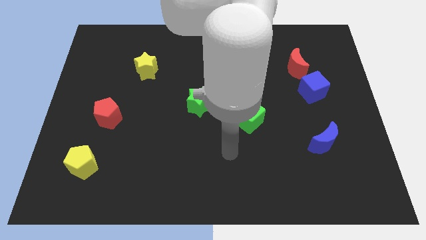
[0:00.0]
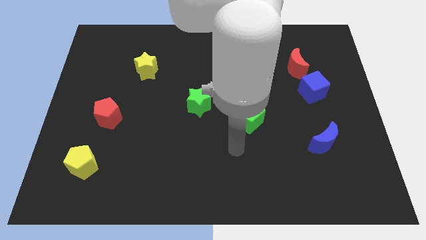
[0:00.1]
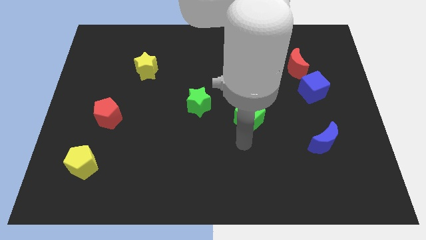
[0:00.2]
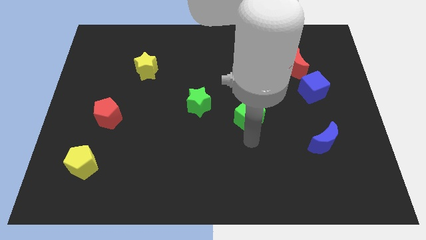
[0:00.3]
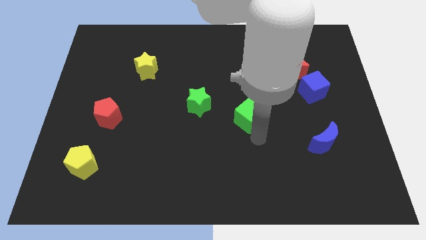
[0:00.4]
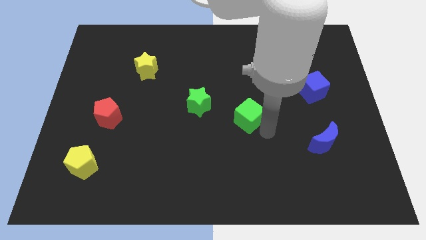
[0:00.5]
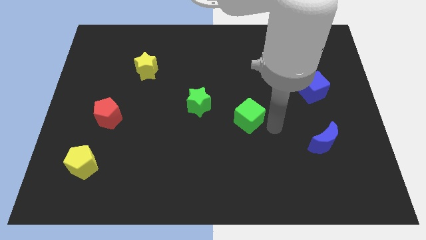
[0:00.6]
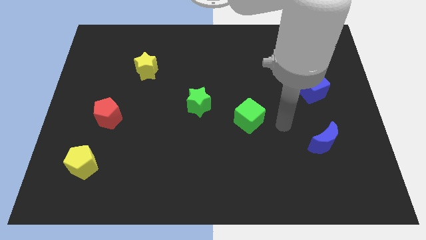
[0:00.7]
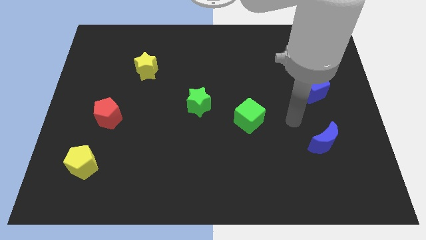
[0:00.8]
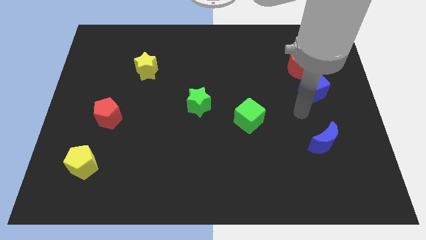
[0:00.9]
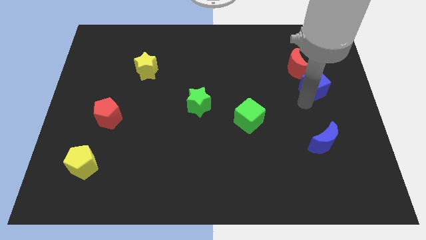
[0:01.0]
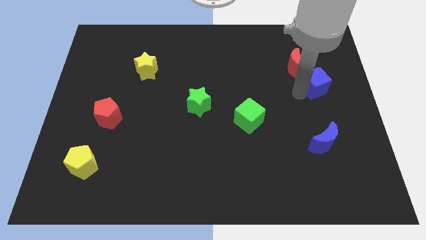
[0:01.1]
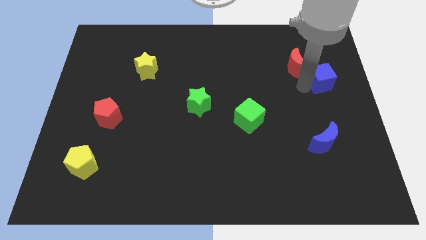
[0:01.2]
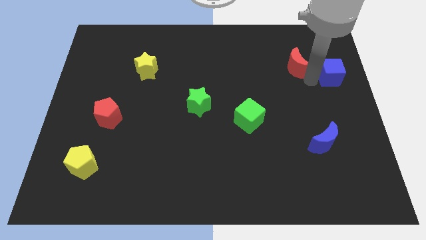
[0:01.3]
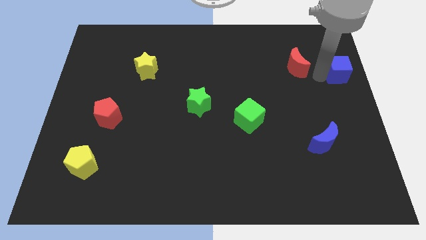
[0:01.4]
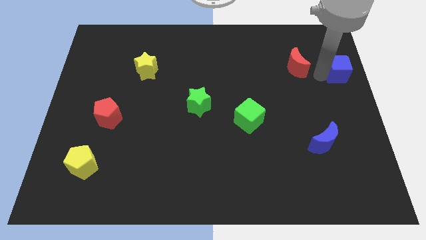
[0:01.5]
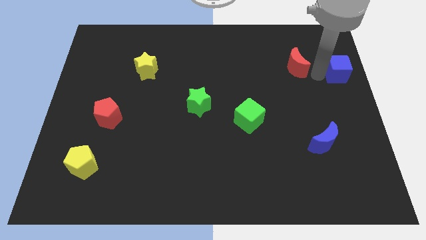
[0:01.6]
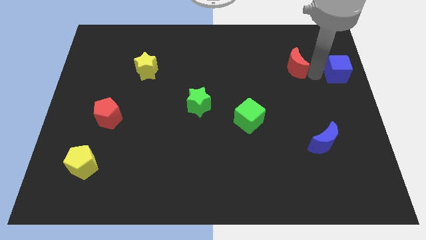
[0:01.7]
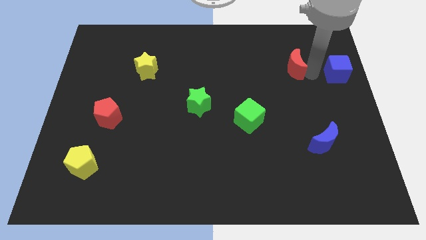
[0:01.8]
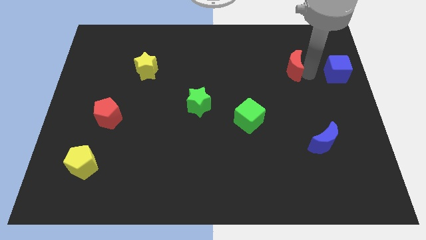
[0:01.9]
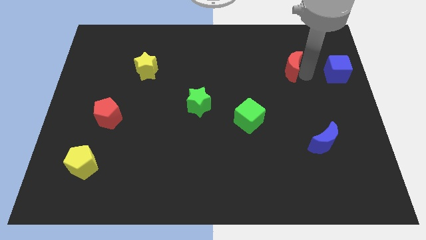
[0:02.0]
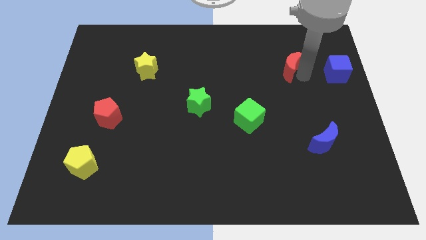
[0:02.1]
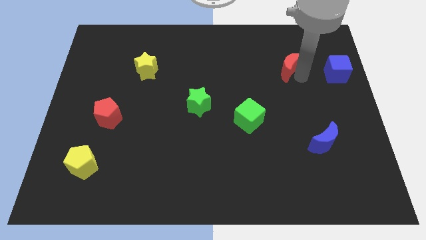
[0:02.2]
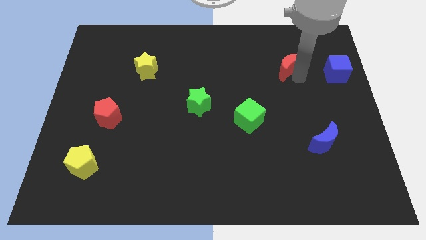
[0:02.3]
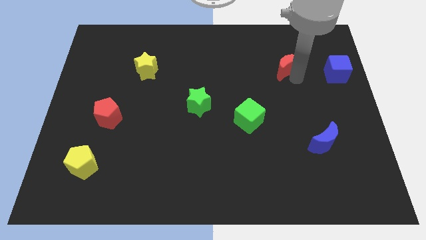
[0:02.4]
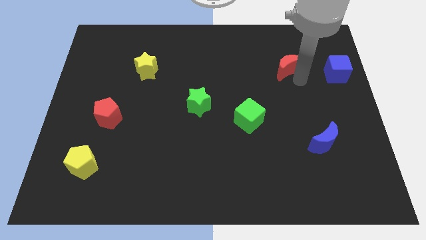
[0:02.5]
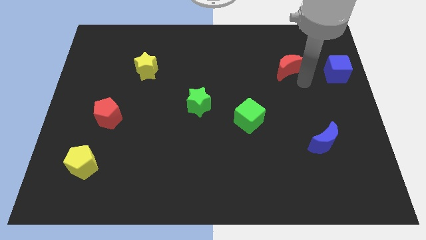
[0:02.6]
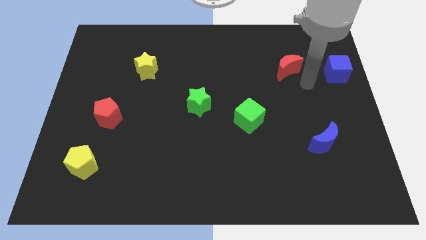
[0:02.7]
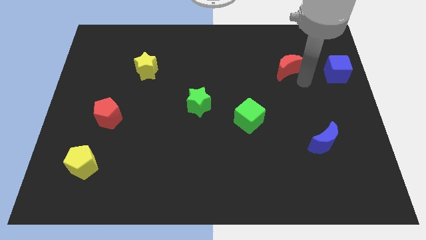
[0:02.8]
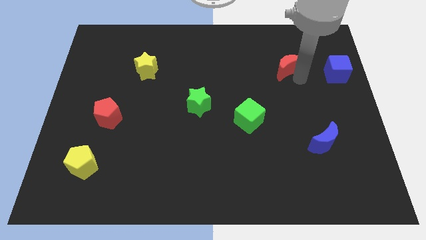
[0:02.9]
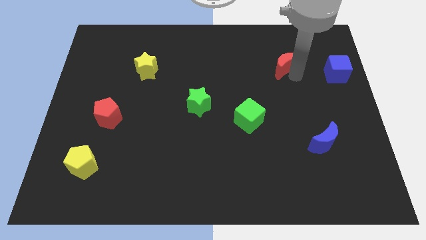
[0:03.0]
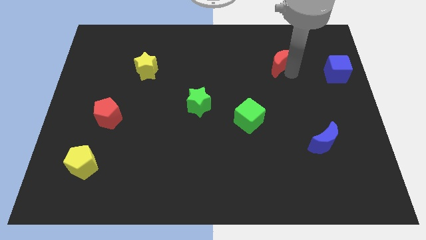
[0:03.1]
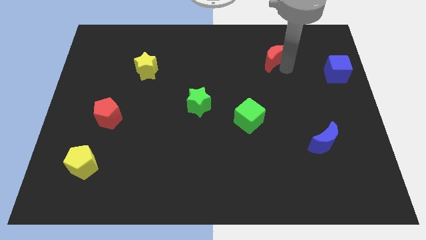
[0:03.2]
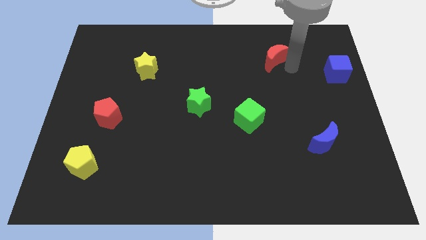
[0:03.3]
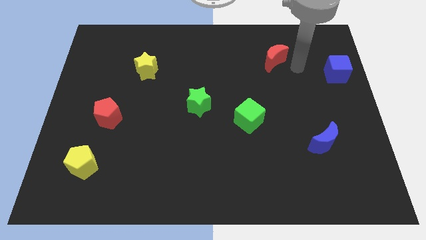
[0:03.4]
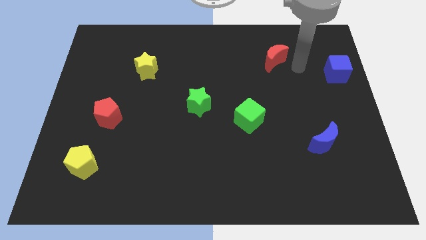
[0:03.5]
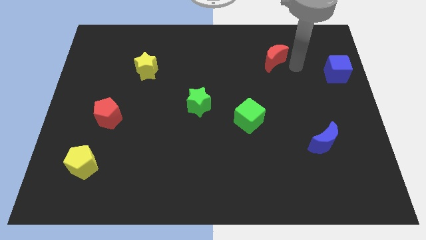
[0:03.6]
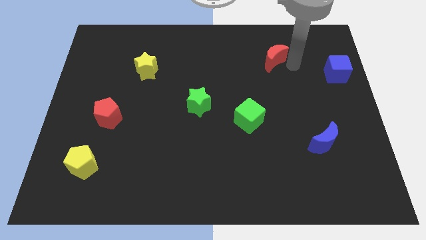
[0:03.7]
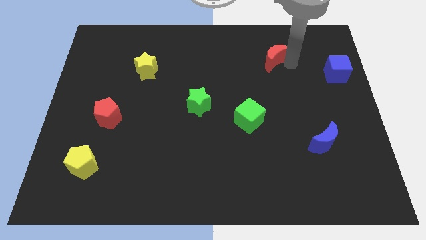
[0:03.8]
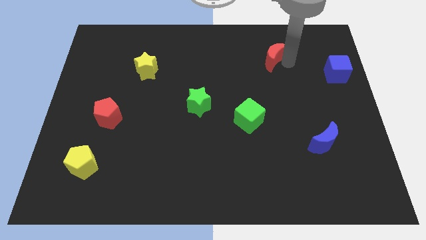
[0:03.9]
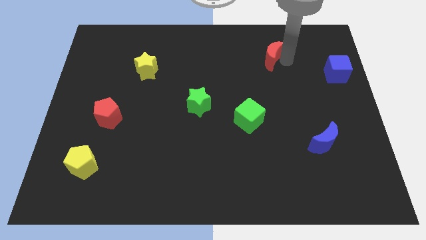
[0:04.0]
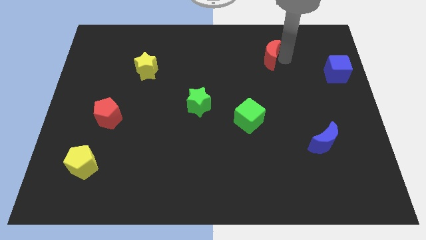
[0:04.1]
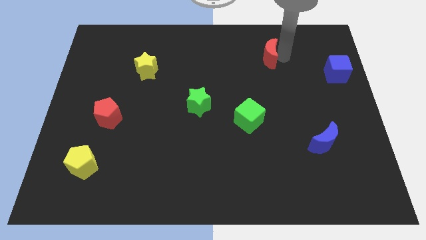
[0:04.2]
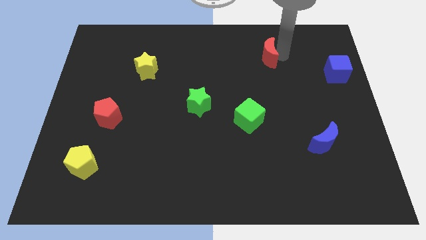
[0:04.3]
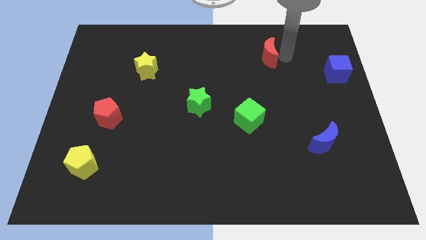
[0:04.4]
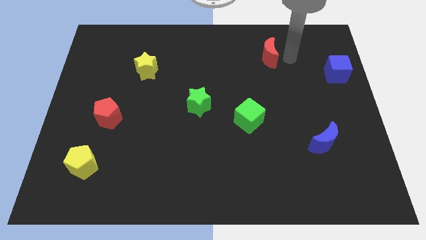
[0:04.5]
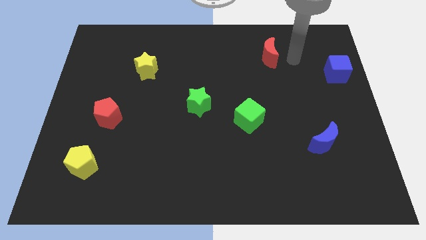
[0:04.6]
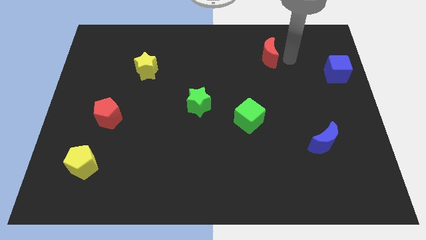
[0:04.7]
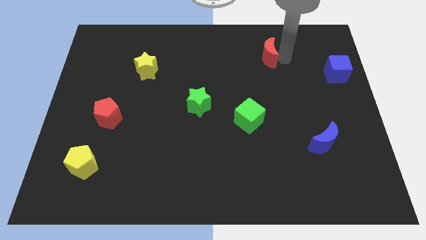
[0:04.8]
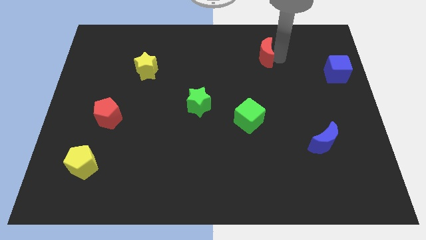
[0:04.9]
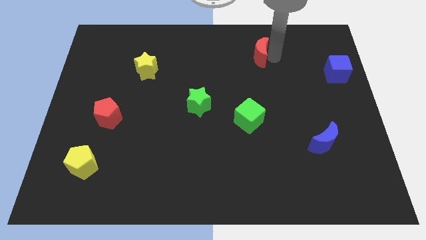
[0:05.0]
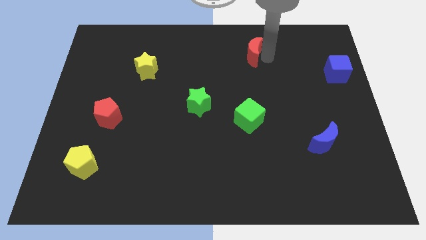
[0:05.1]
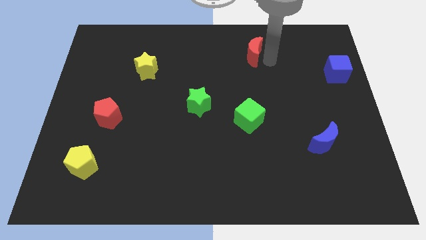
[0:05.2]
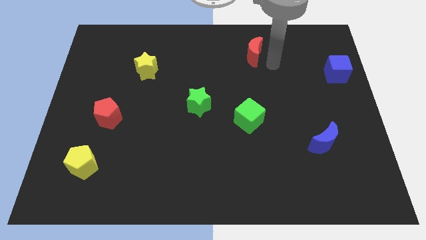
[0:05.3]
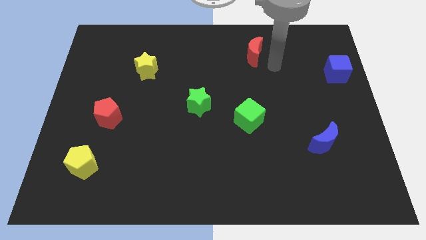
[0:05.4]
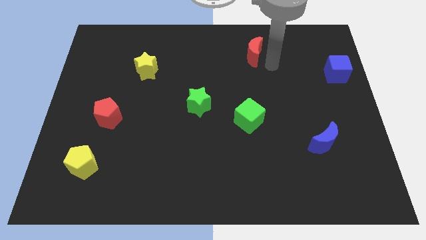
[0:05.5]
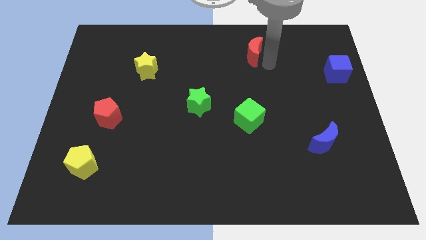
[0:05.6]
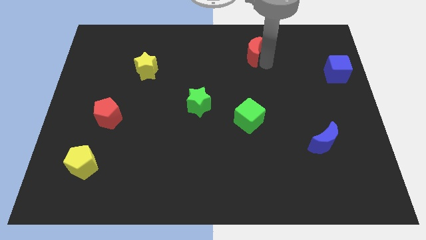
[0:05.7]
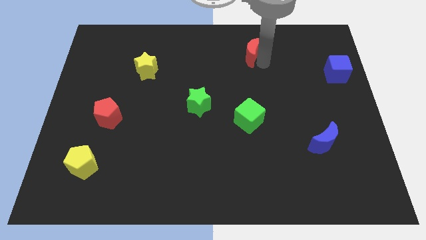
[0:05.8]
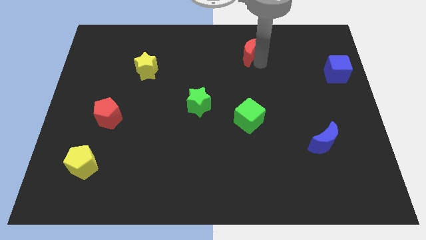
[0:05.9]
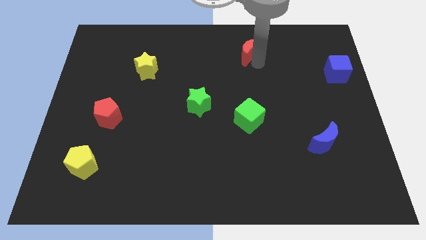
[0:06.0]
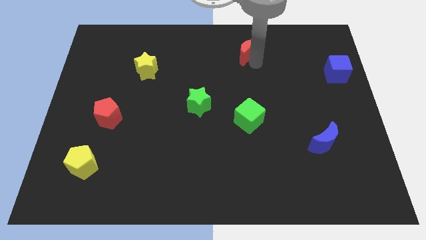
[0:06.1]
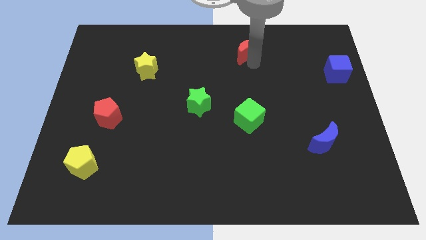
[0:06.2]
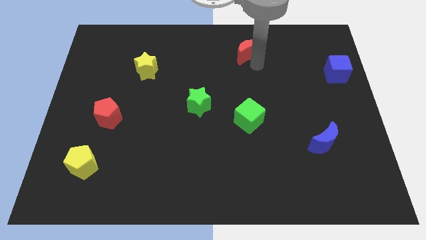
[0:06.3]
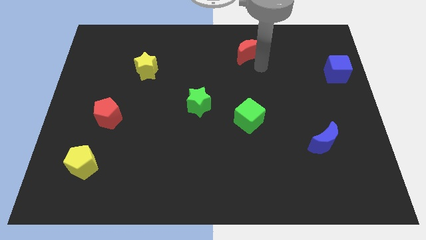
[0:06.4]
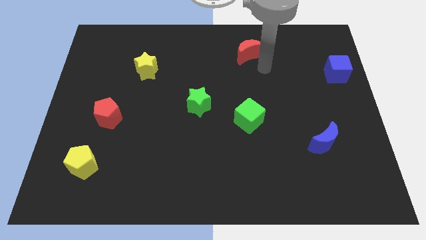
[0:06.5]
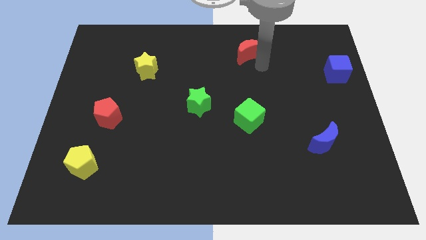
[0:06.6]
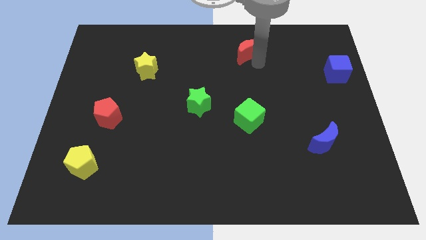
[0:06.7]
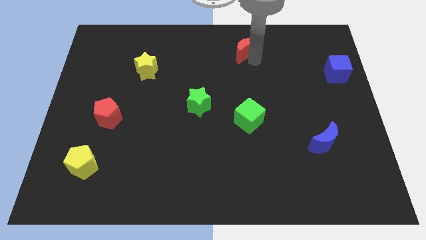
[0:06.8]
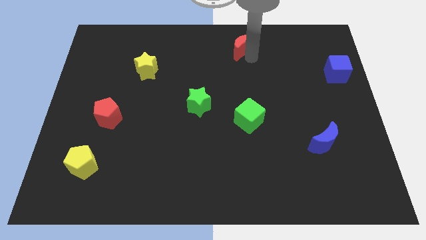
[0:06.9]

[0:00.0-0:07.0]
push the red moon to the top
